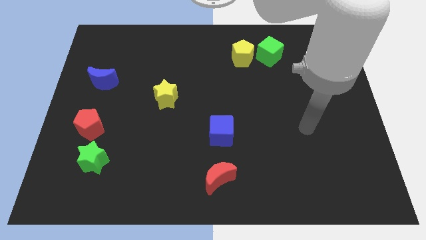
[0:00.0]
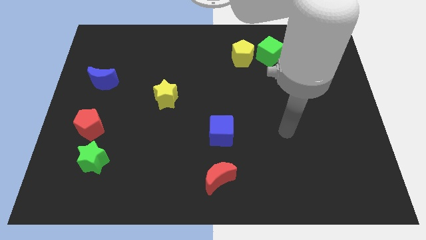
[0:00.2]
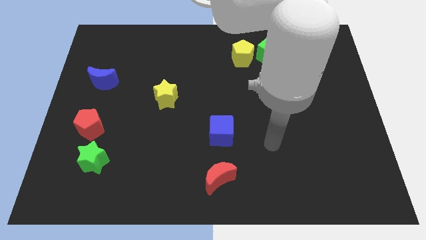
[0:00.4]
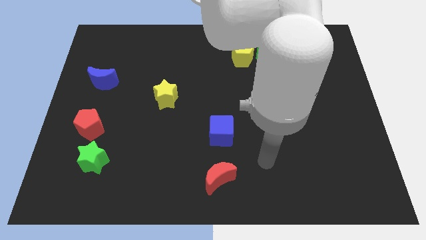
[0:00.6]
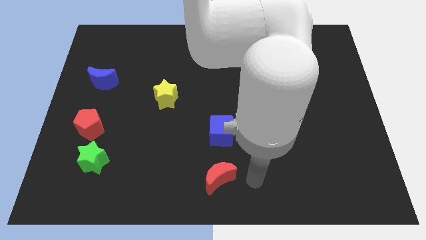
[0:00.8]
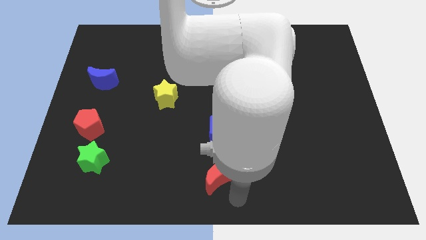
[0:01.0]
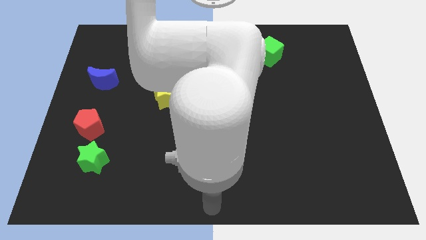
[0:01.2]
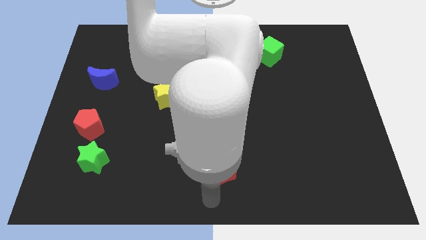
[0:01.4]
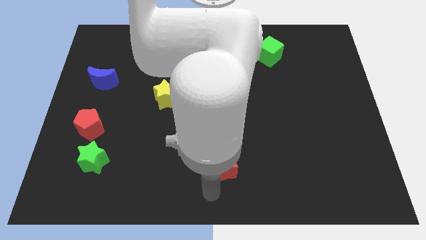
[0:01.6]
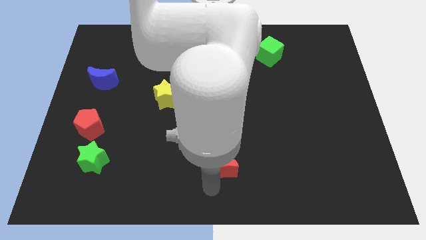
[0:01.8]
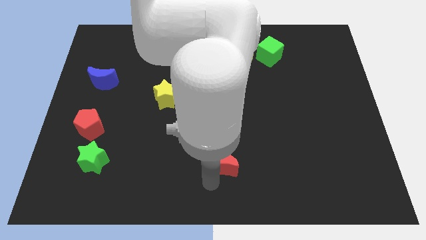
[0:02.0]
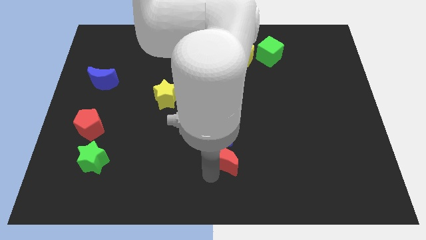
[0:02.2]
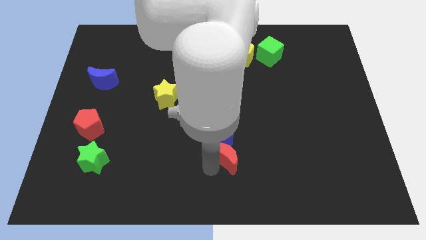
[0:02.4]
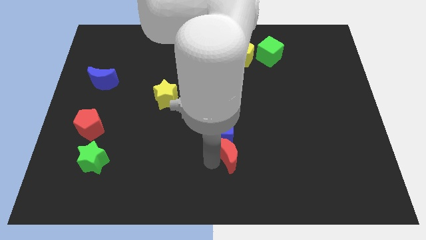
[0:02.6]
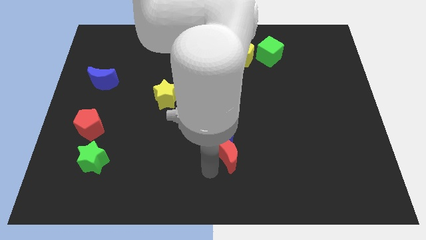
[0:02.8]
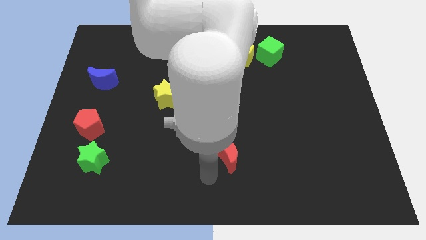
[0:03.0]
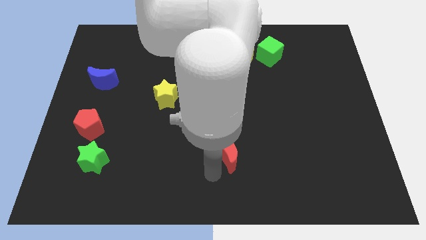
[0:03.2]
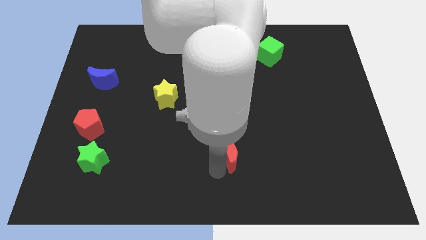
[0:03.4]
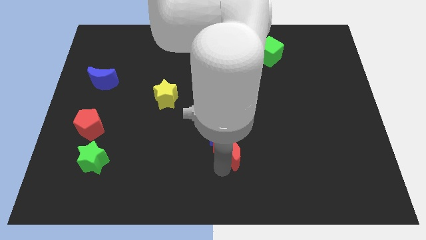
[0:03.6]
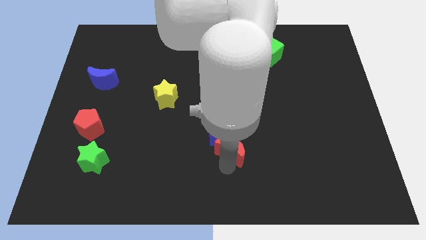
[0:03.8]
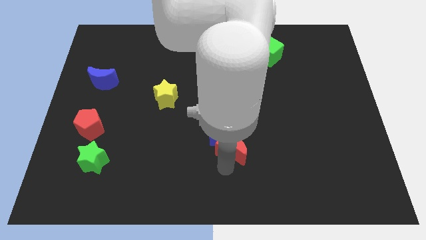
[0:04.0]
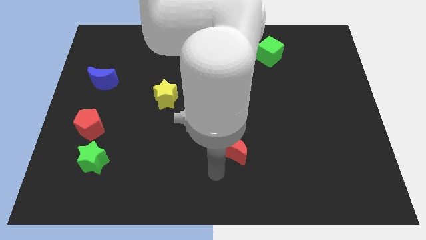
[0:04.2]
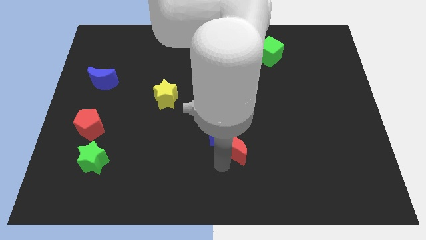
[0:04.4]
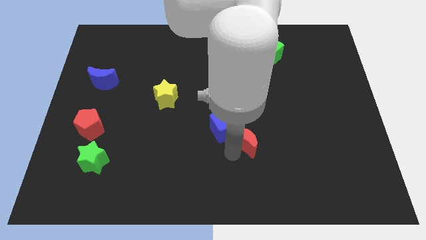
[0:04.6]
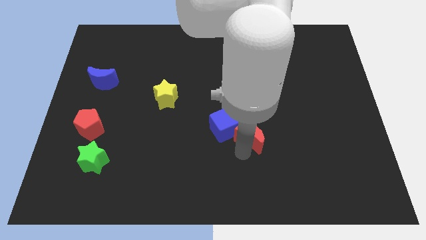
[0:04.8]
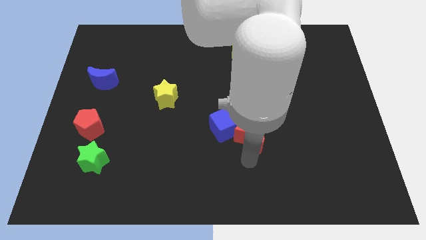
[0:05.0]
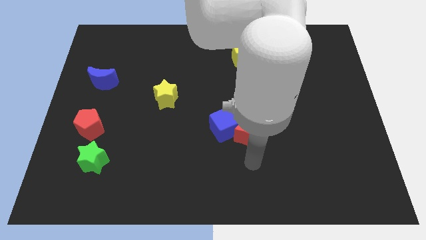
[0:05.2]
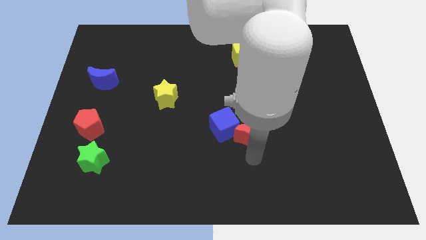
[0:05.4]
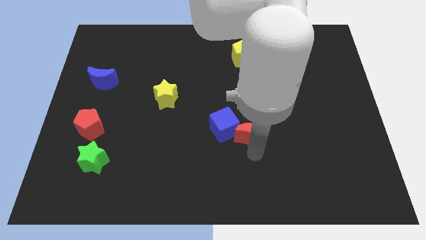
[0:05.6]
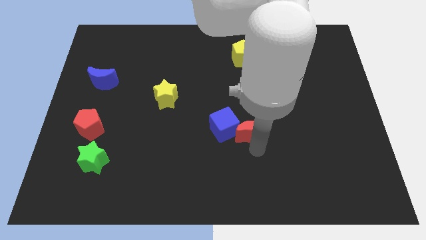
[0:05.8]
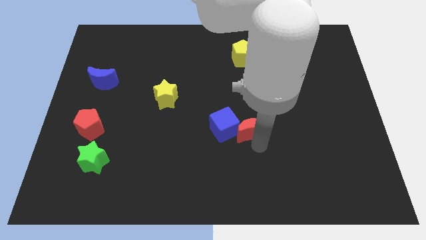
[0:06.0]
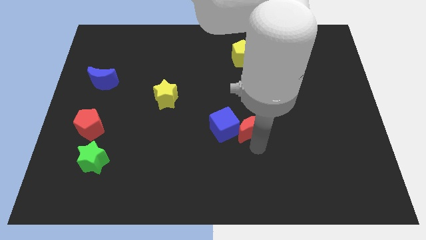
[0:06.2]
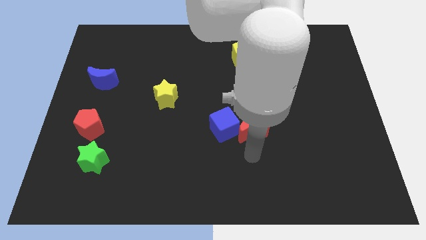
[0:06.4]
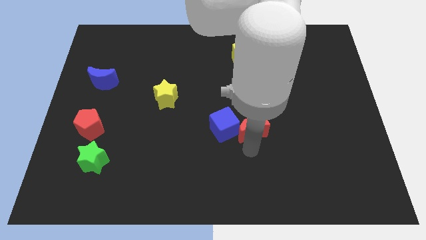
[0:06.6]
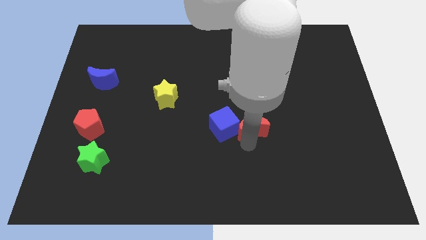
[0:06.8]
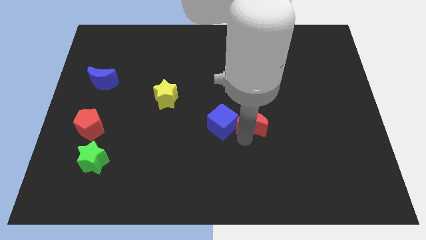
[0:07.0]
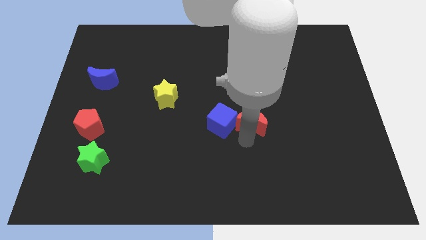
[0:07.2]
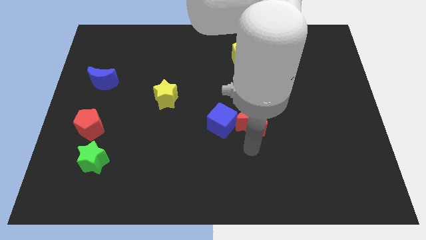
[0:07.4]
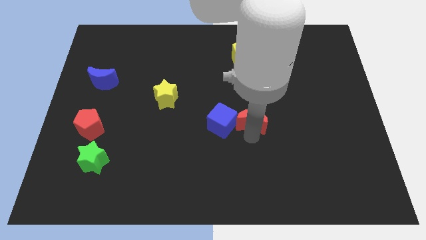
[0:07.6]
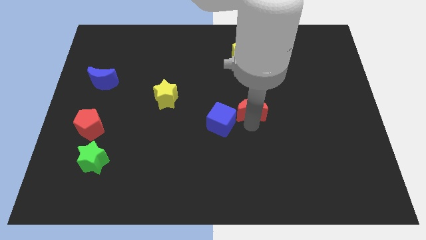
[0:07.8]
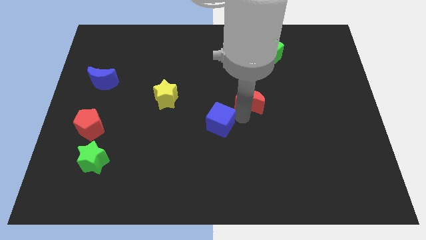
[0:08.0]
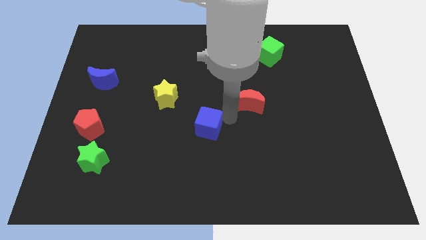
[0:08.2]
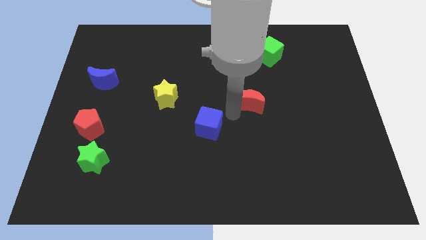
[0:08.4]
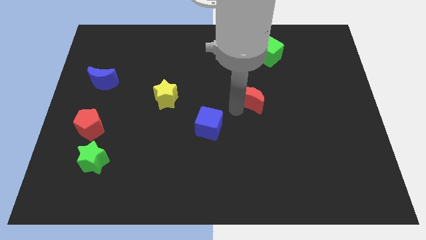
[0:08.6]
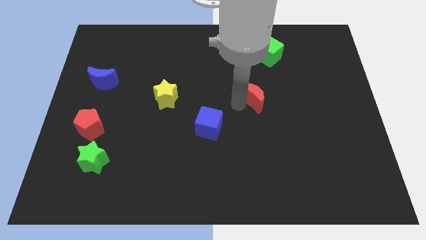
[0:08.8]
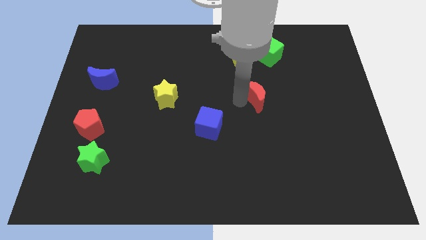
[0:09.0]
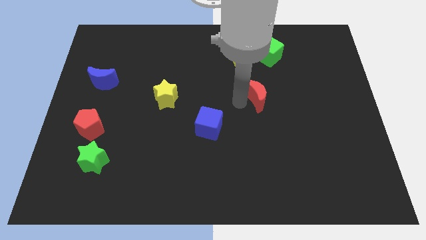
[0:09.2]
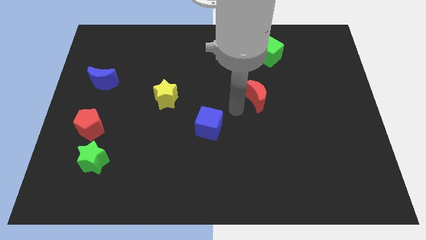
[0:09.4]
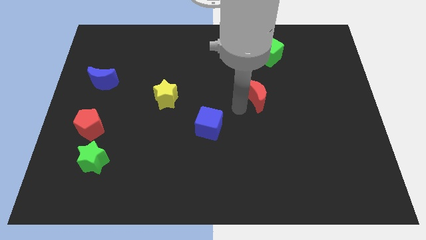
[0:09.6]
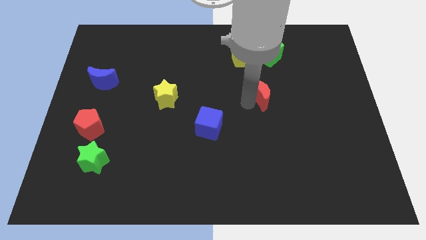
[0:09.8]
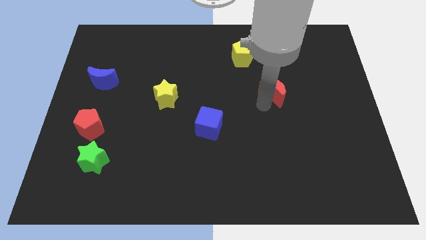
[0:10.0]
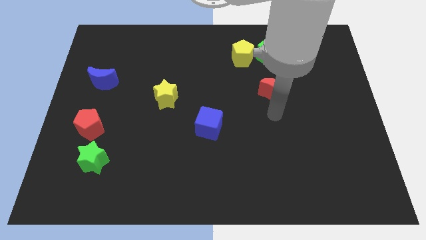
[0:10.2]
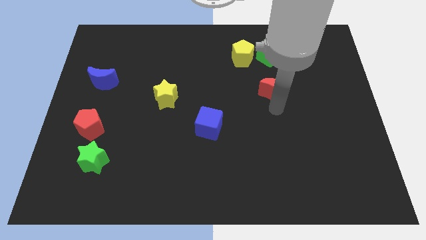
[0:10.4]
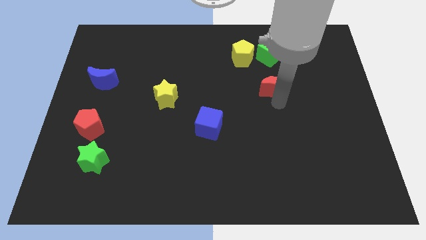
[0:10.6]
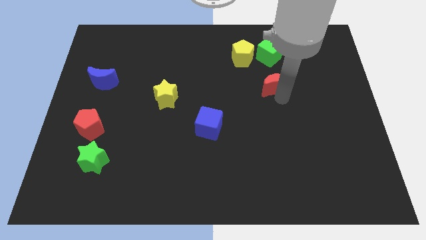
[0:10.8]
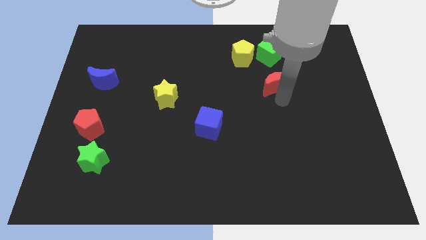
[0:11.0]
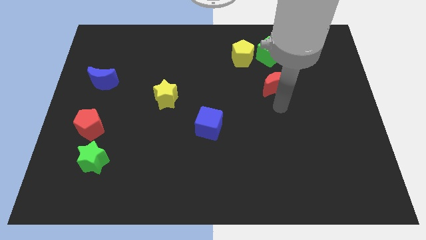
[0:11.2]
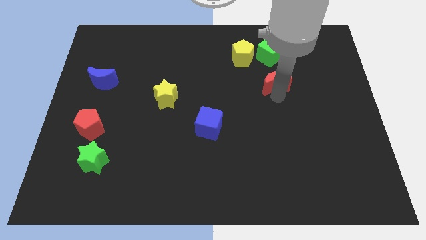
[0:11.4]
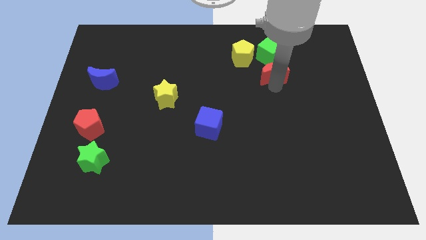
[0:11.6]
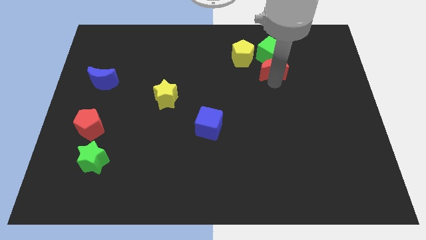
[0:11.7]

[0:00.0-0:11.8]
slide the red moon to the green cube

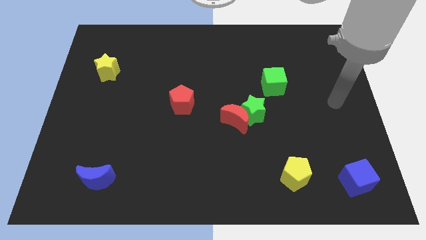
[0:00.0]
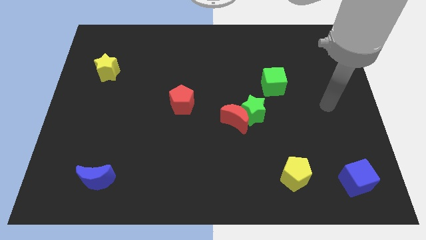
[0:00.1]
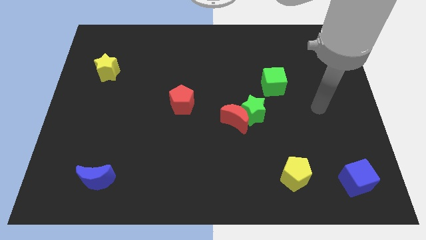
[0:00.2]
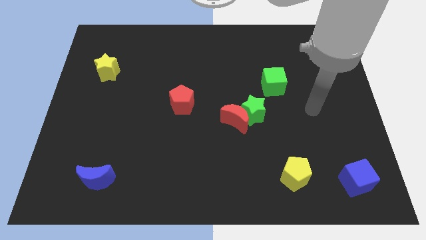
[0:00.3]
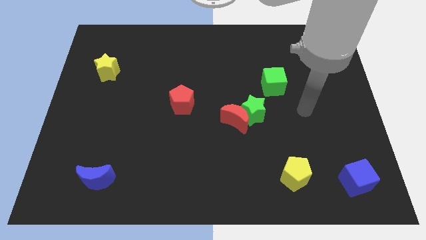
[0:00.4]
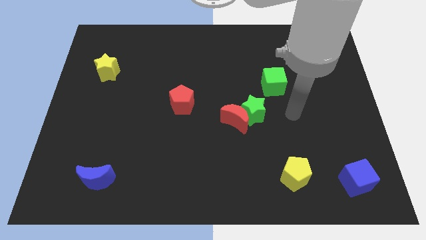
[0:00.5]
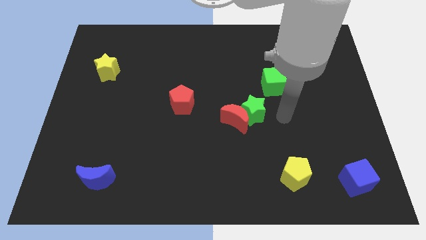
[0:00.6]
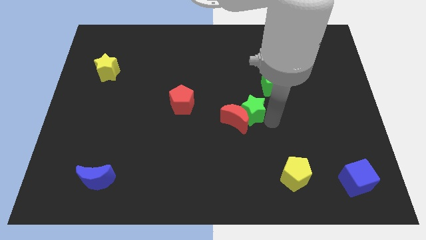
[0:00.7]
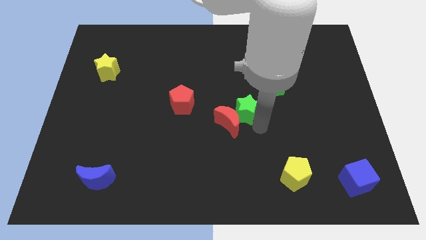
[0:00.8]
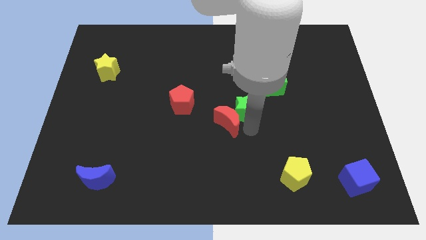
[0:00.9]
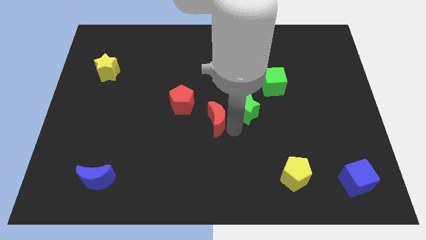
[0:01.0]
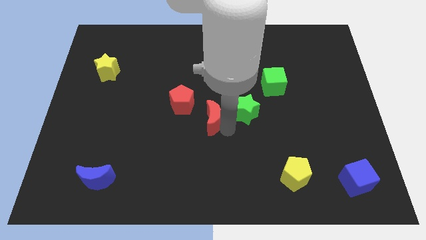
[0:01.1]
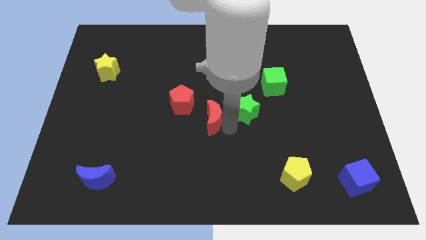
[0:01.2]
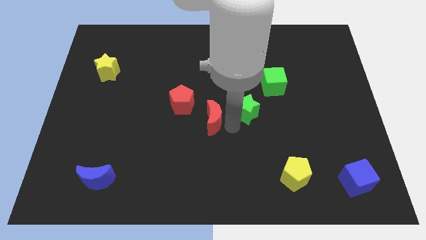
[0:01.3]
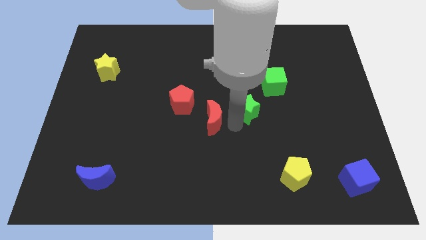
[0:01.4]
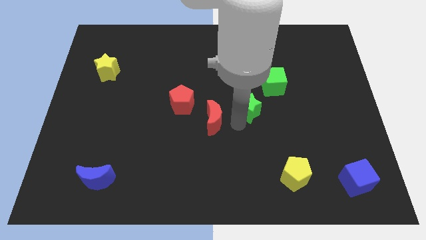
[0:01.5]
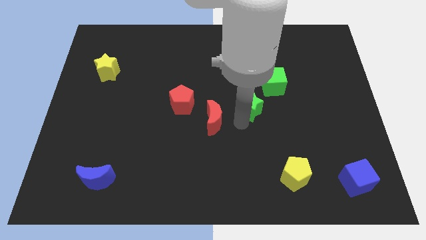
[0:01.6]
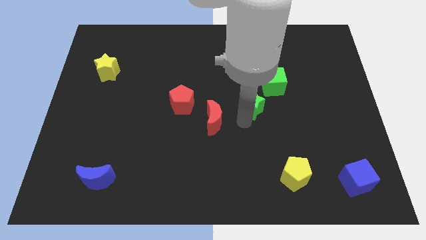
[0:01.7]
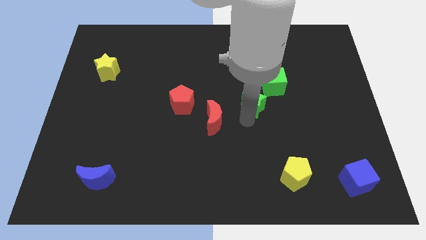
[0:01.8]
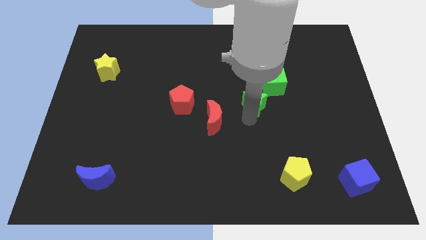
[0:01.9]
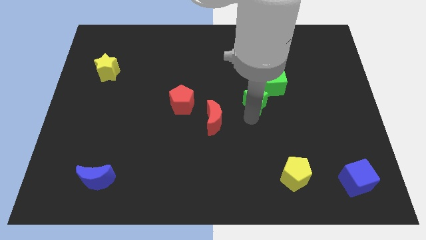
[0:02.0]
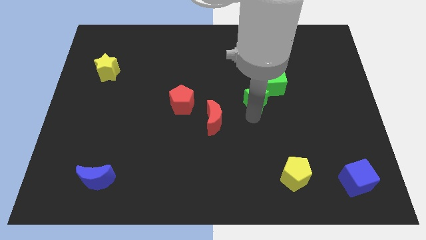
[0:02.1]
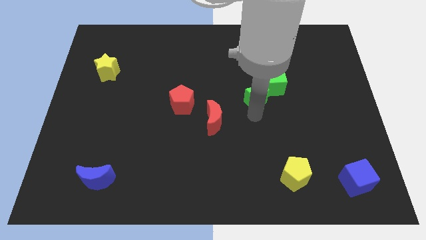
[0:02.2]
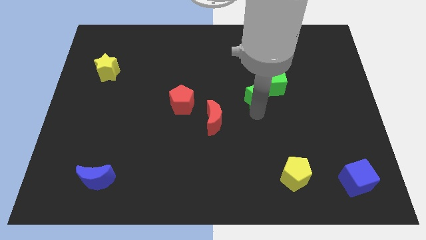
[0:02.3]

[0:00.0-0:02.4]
push the green star next to the green cube
